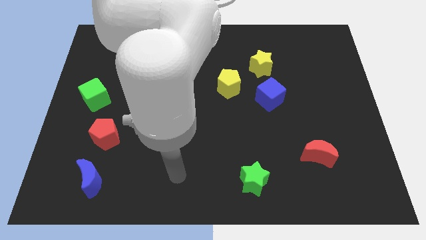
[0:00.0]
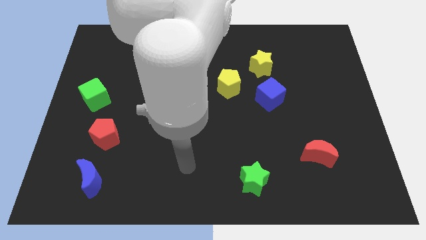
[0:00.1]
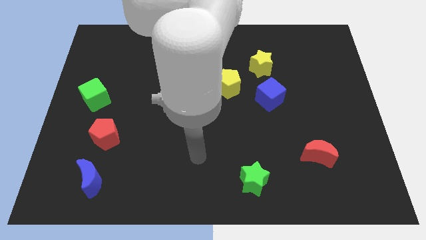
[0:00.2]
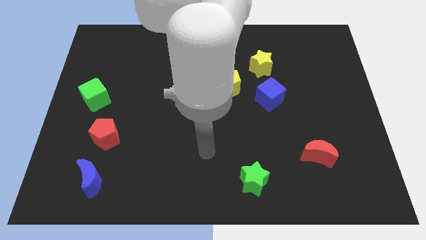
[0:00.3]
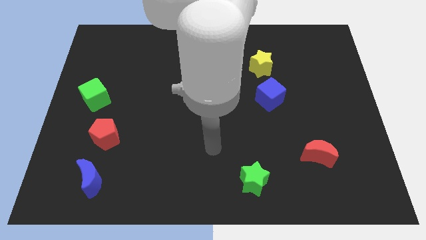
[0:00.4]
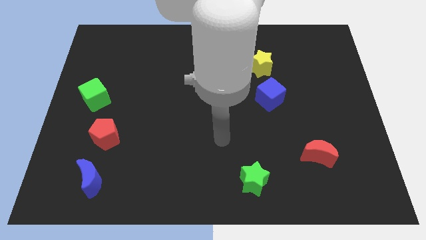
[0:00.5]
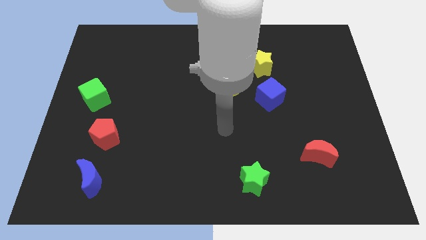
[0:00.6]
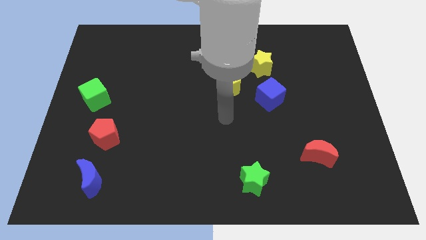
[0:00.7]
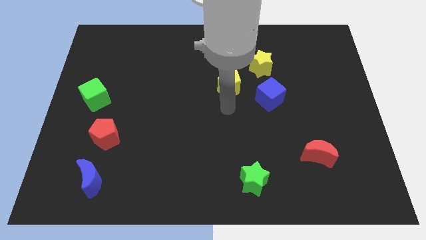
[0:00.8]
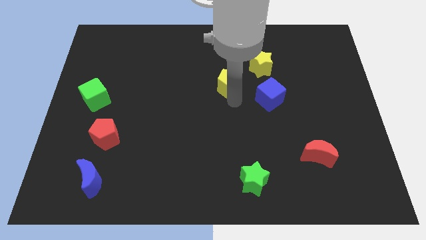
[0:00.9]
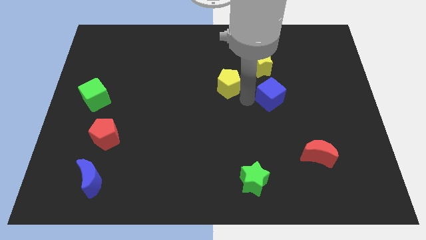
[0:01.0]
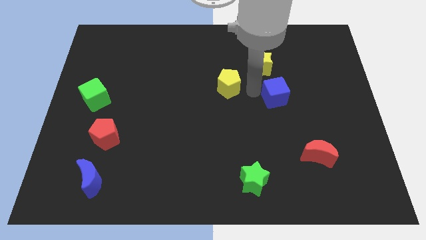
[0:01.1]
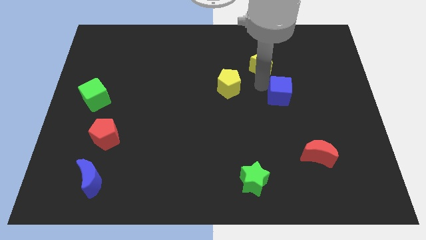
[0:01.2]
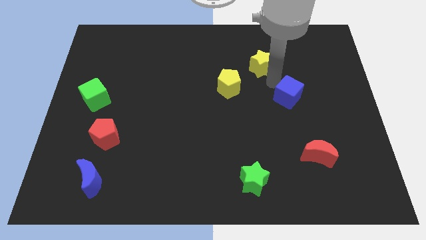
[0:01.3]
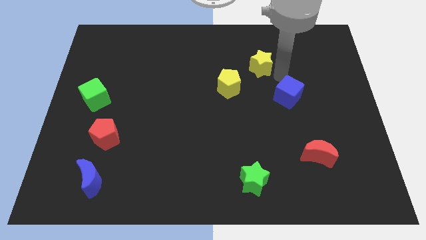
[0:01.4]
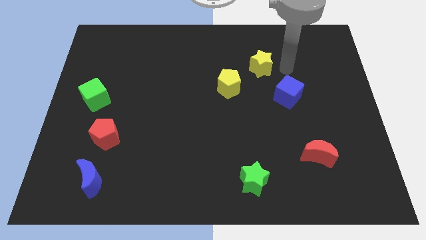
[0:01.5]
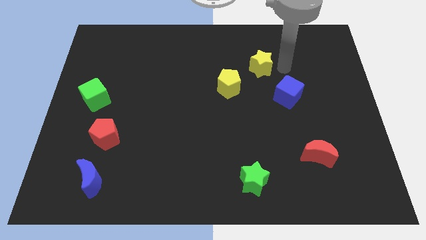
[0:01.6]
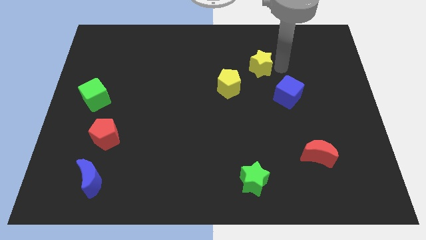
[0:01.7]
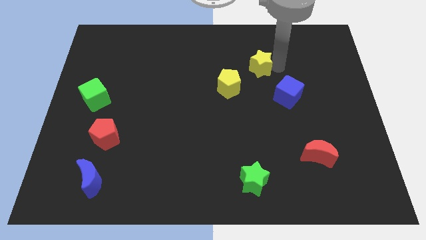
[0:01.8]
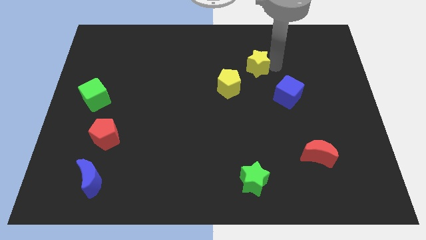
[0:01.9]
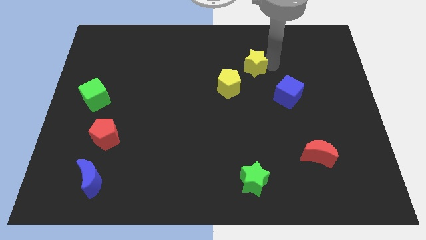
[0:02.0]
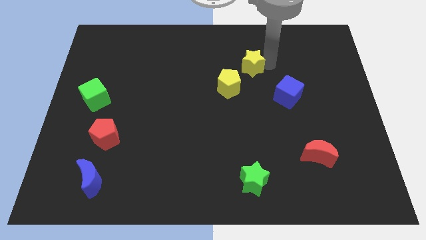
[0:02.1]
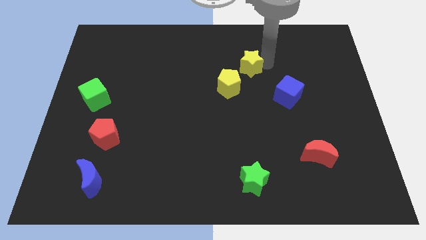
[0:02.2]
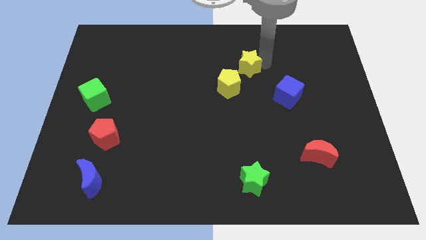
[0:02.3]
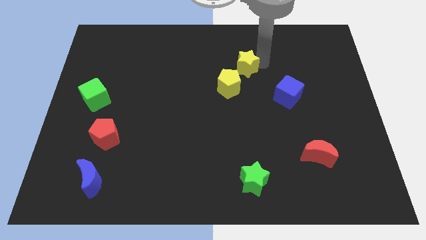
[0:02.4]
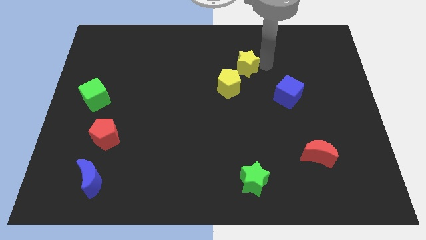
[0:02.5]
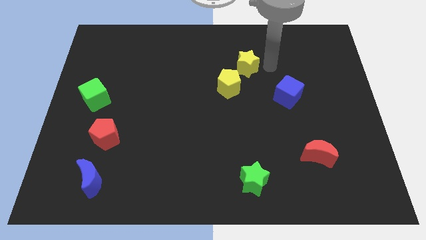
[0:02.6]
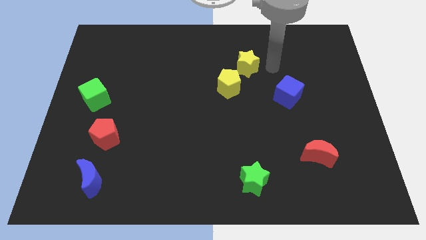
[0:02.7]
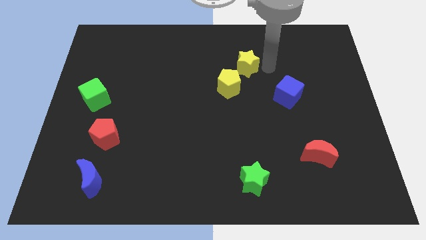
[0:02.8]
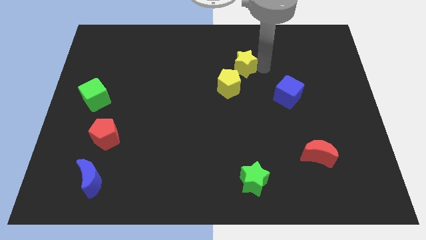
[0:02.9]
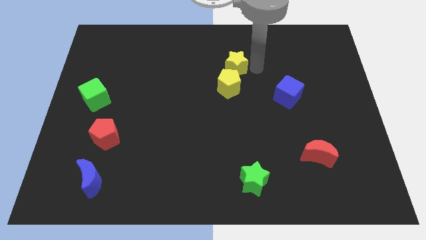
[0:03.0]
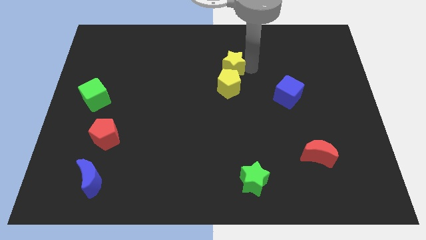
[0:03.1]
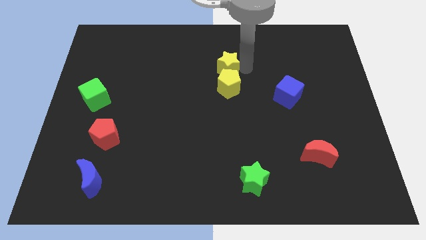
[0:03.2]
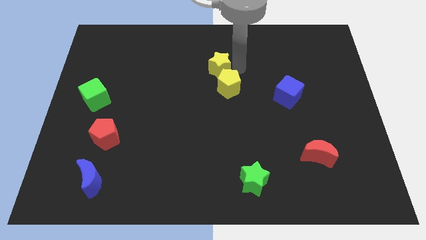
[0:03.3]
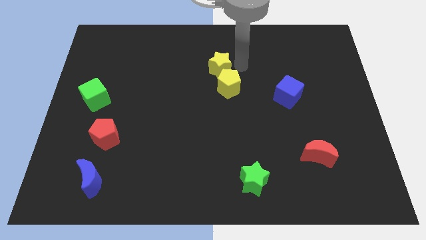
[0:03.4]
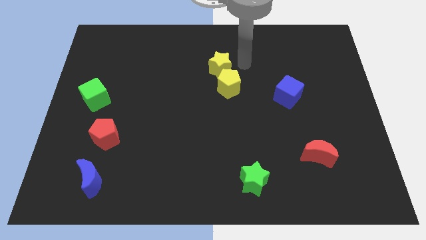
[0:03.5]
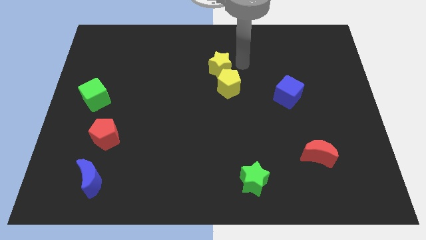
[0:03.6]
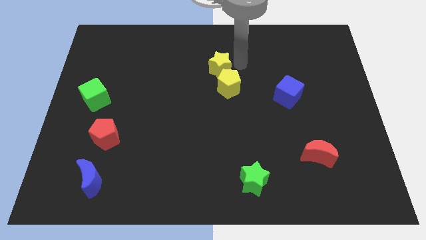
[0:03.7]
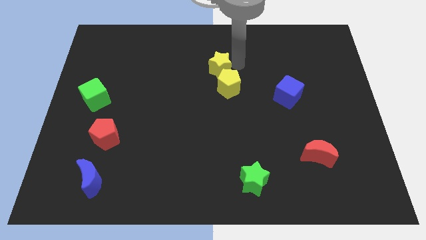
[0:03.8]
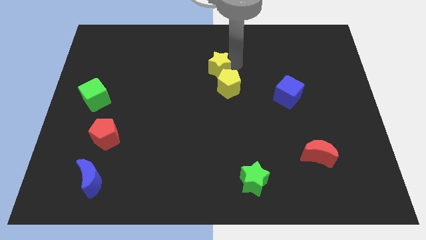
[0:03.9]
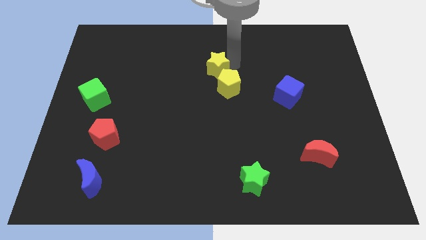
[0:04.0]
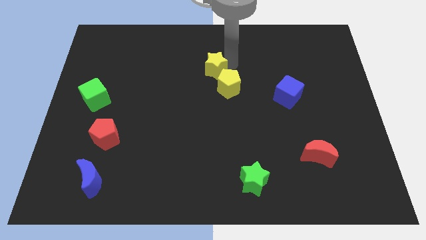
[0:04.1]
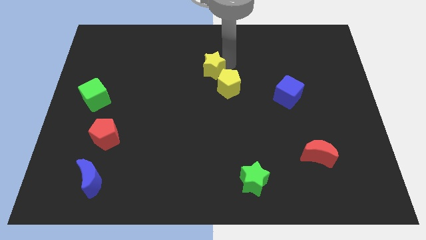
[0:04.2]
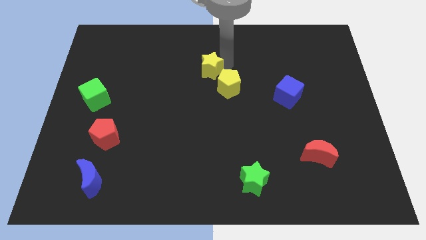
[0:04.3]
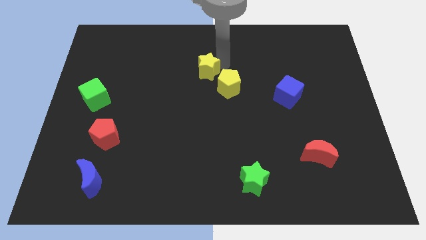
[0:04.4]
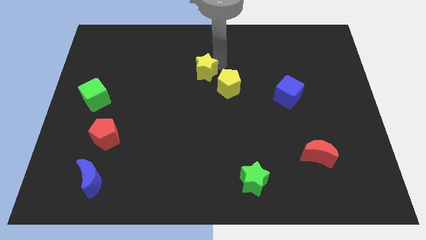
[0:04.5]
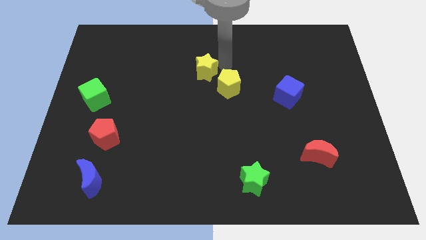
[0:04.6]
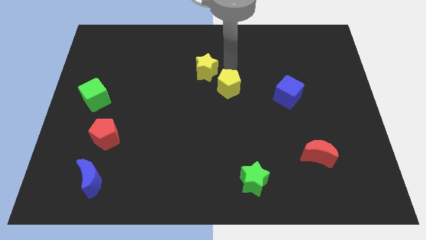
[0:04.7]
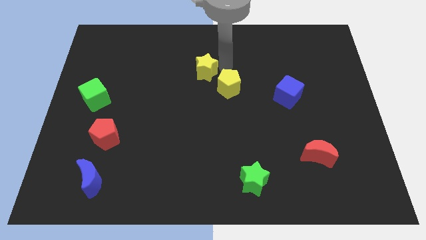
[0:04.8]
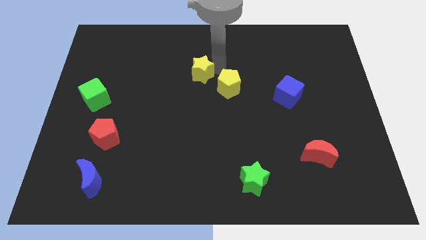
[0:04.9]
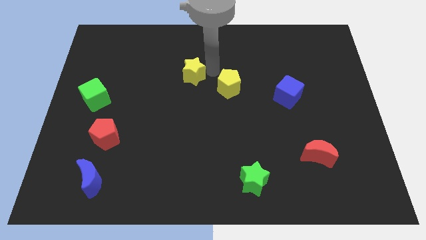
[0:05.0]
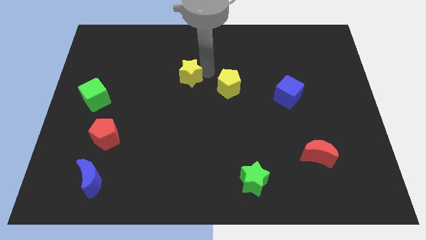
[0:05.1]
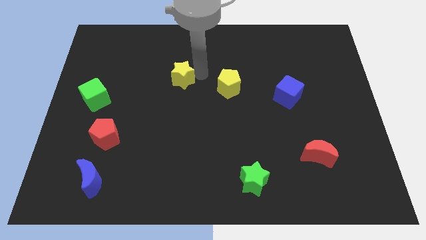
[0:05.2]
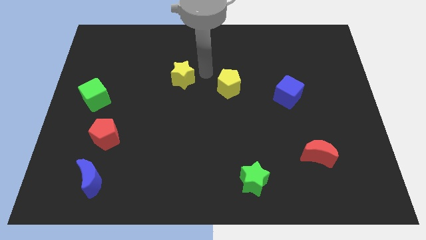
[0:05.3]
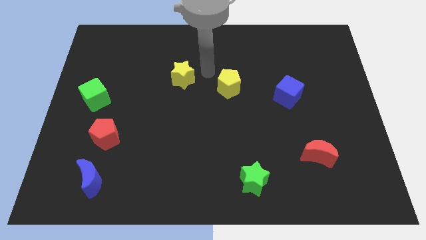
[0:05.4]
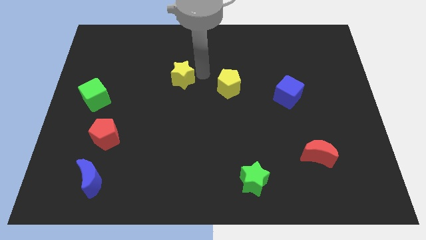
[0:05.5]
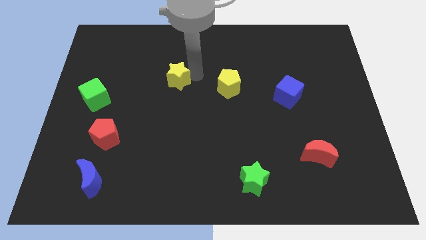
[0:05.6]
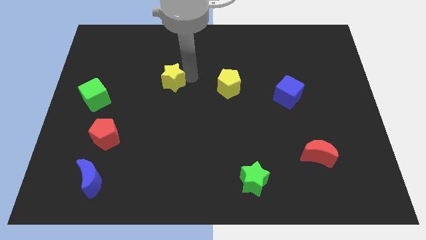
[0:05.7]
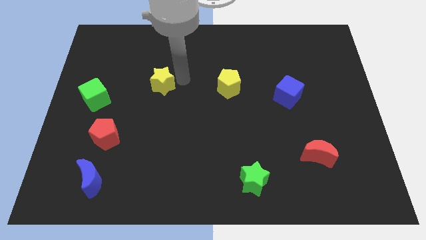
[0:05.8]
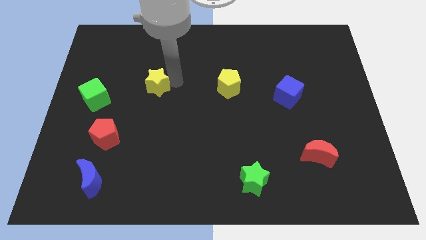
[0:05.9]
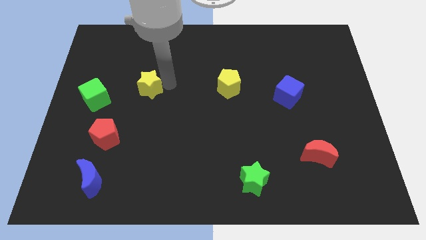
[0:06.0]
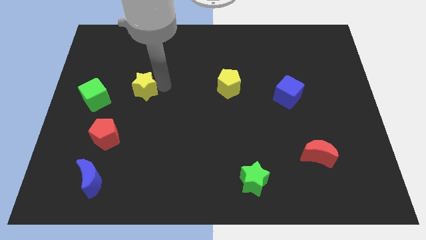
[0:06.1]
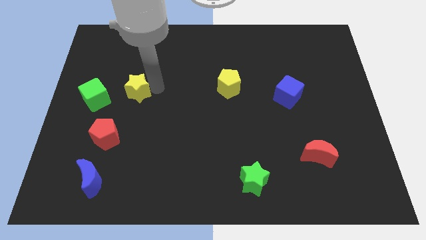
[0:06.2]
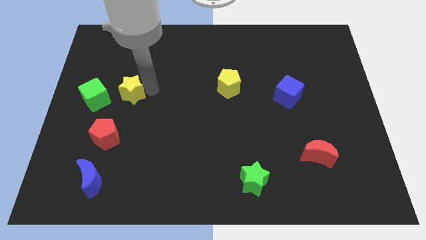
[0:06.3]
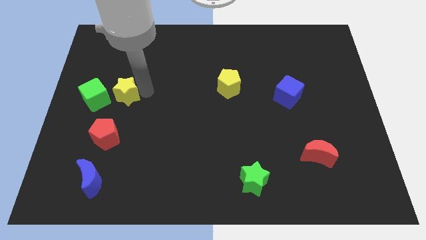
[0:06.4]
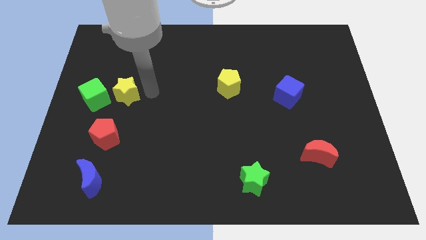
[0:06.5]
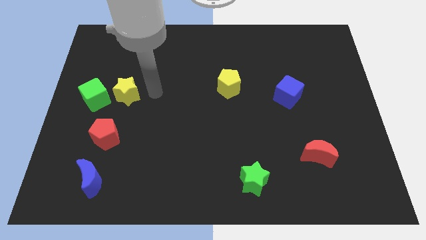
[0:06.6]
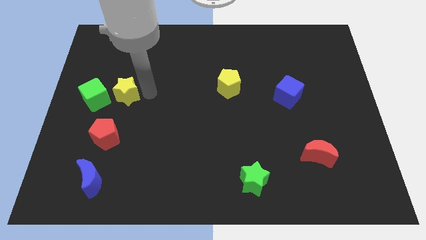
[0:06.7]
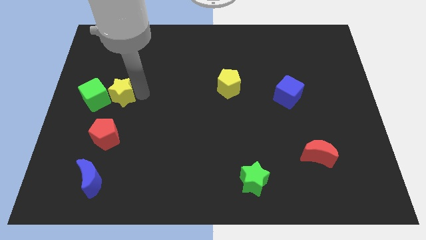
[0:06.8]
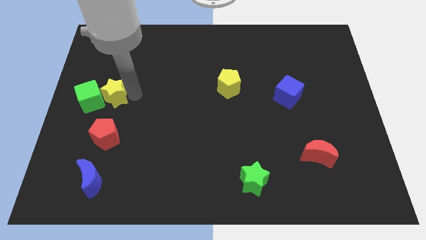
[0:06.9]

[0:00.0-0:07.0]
slide the yellow star next to the green cube
